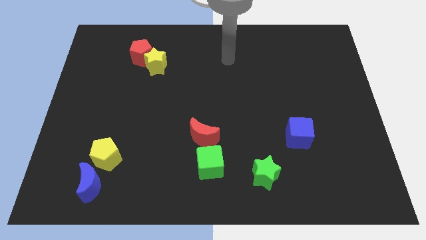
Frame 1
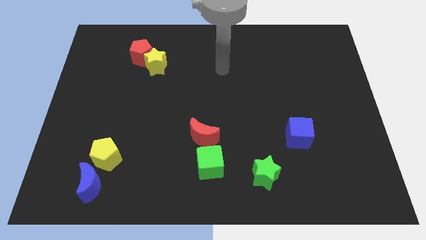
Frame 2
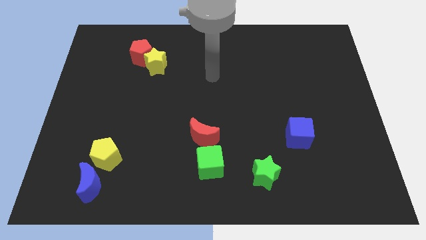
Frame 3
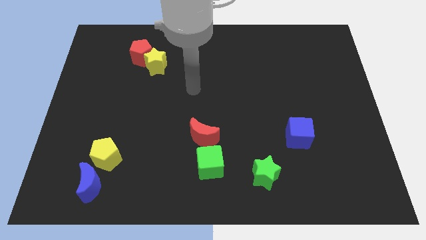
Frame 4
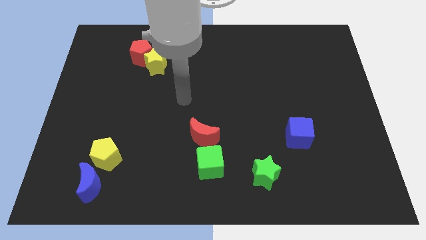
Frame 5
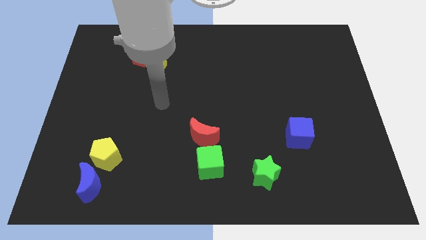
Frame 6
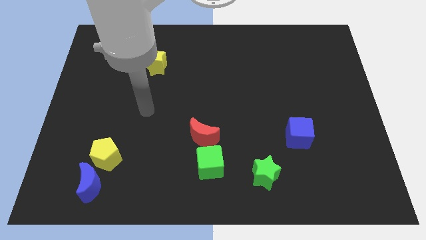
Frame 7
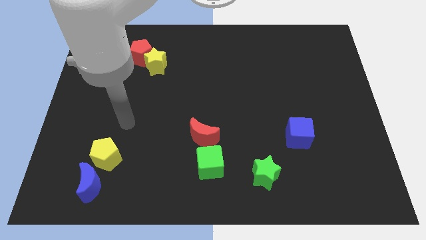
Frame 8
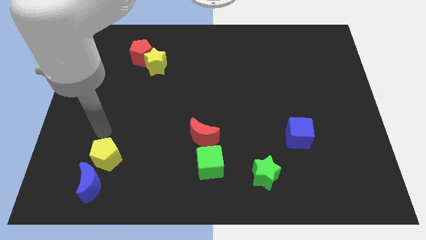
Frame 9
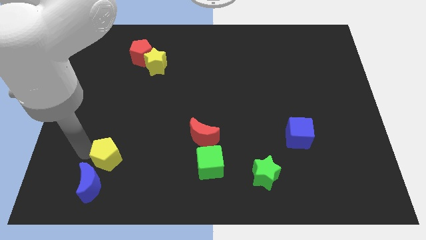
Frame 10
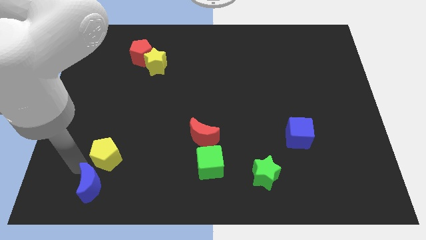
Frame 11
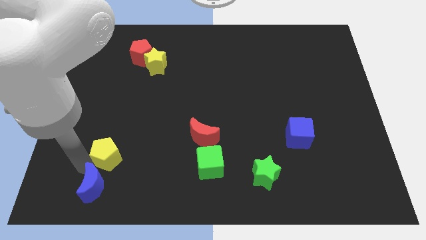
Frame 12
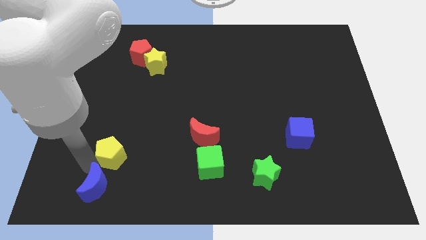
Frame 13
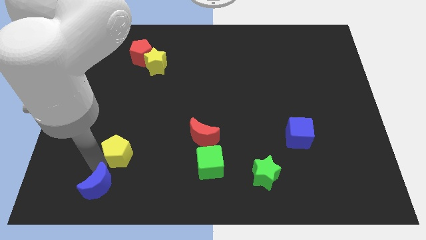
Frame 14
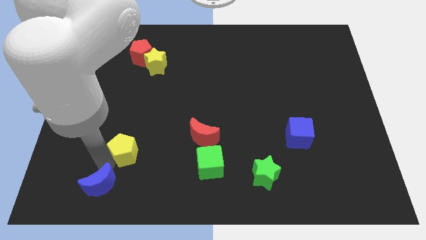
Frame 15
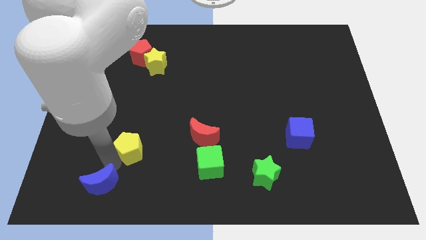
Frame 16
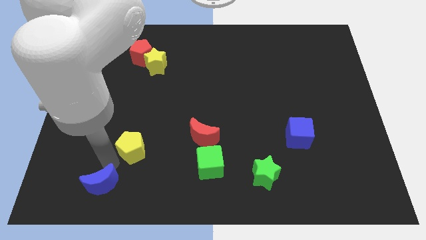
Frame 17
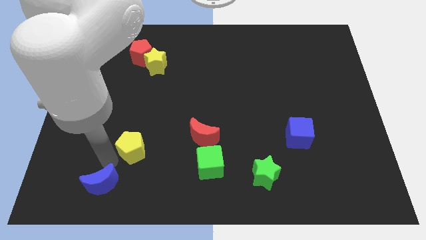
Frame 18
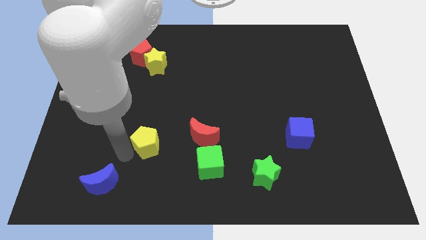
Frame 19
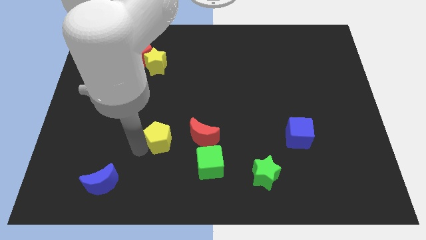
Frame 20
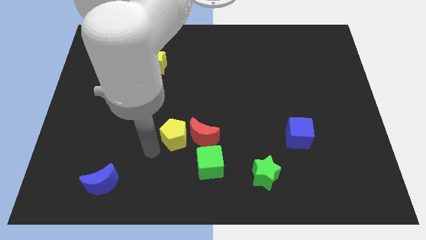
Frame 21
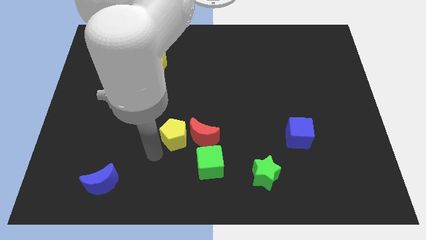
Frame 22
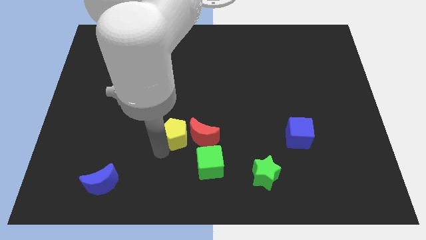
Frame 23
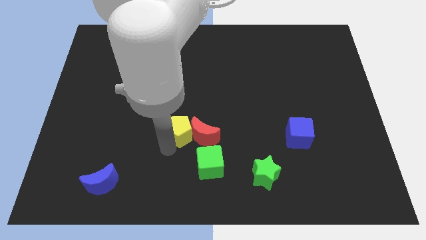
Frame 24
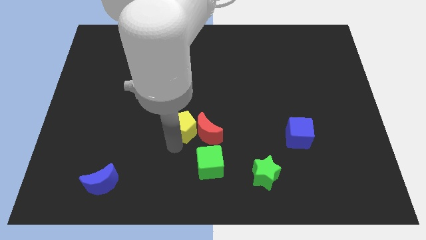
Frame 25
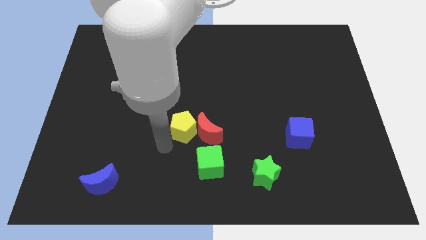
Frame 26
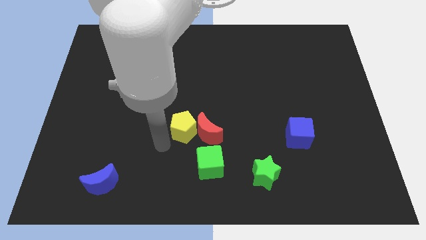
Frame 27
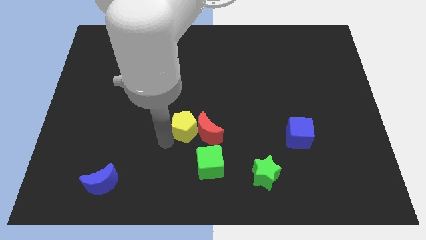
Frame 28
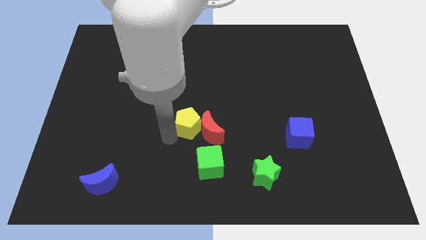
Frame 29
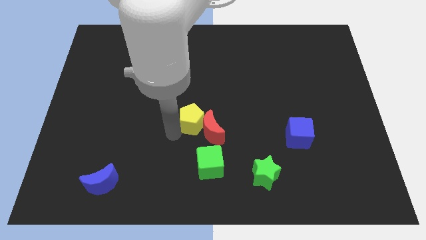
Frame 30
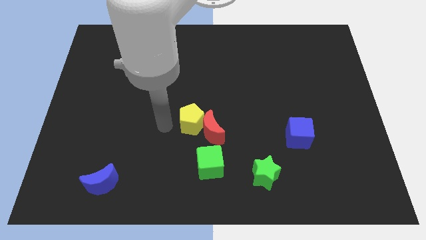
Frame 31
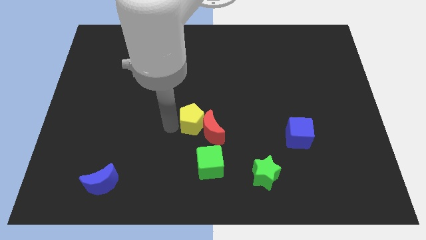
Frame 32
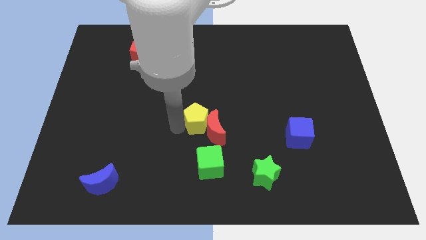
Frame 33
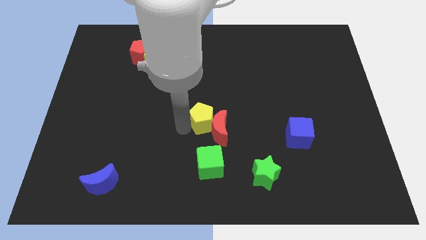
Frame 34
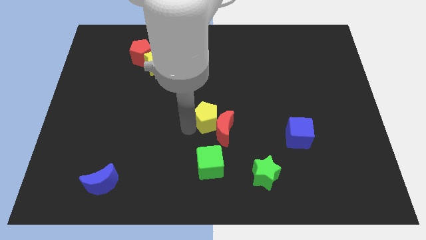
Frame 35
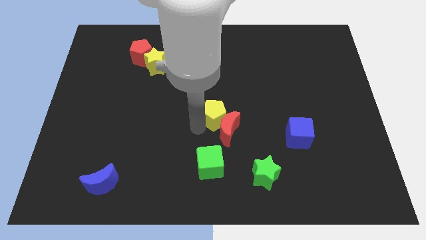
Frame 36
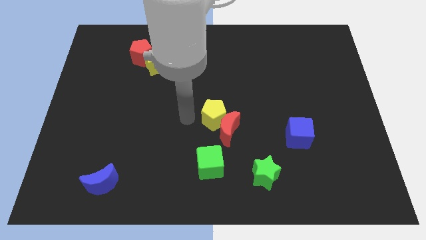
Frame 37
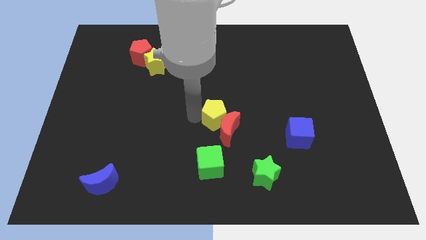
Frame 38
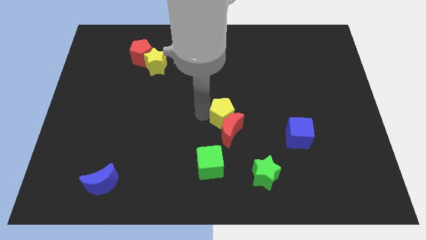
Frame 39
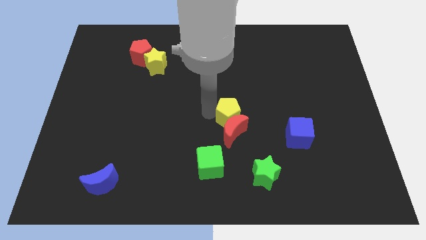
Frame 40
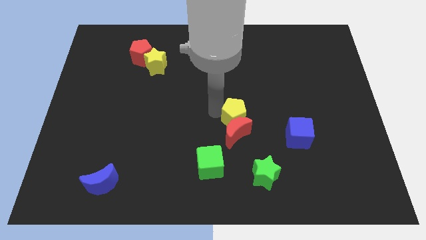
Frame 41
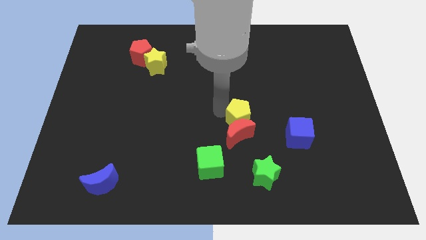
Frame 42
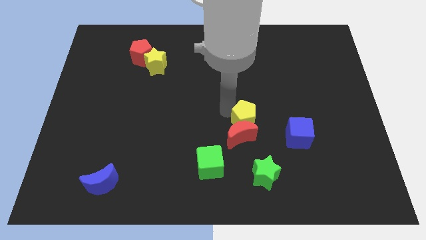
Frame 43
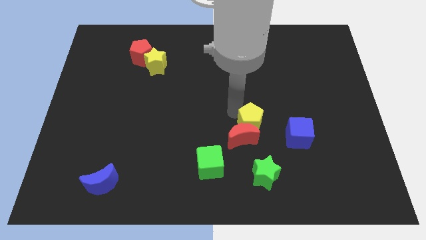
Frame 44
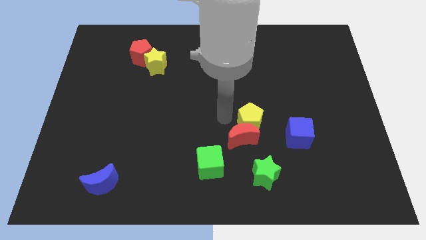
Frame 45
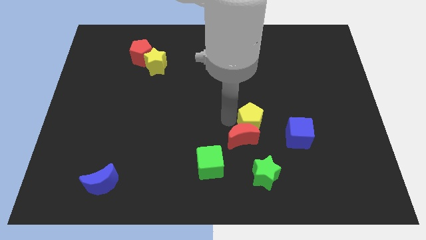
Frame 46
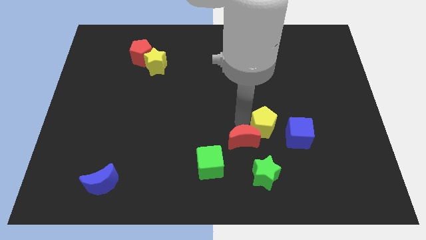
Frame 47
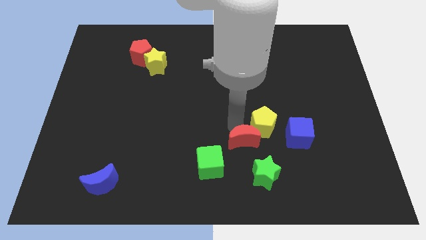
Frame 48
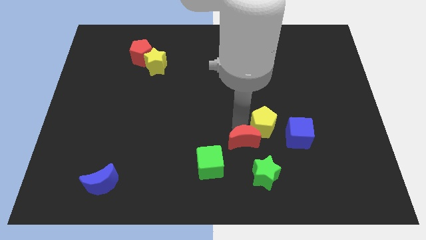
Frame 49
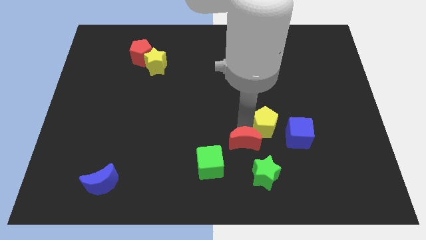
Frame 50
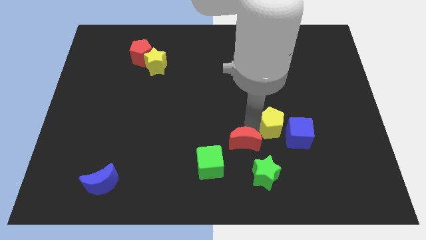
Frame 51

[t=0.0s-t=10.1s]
put the yellow pentagon close to the blue cube

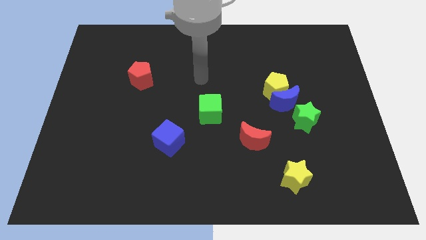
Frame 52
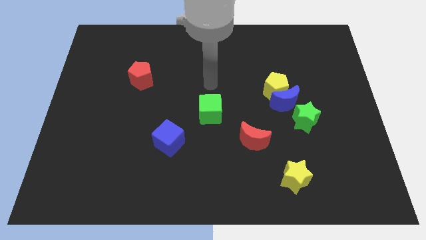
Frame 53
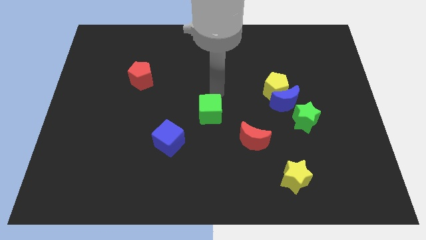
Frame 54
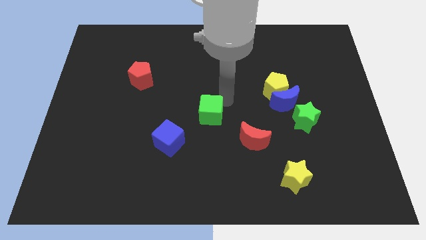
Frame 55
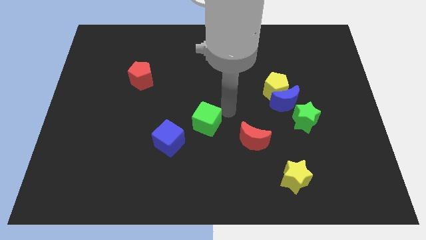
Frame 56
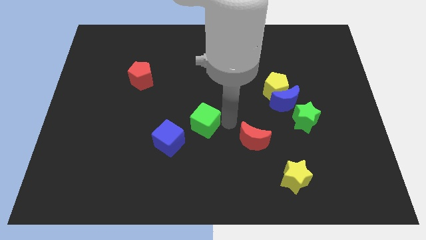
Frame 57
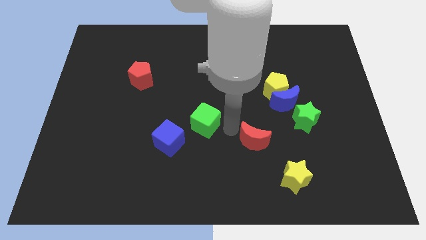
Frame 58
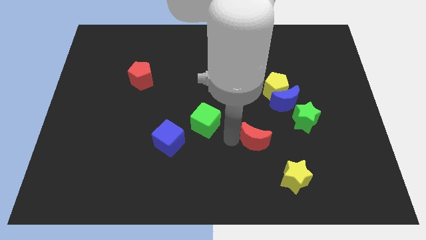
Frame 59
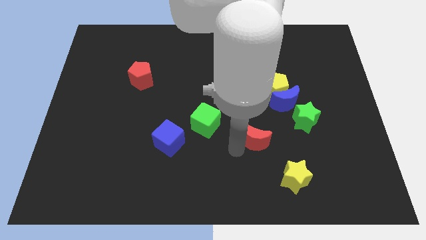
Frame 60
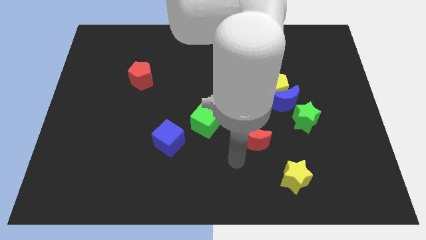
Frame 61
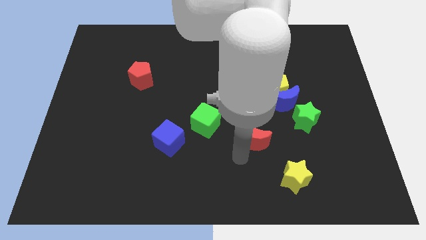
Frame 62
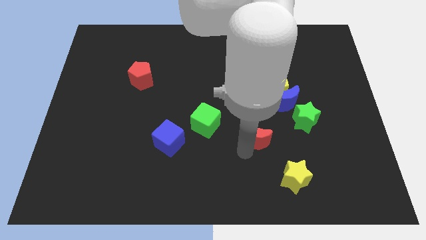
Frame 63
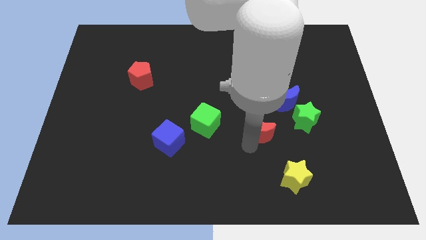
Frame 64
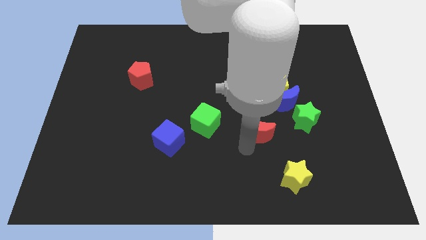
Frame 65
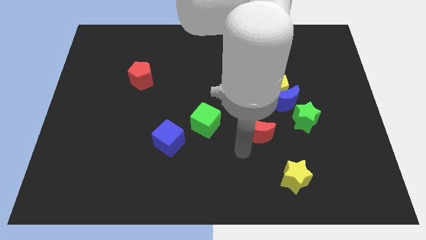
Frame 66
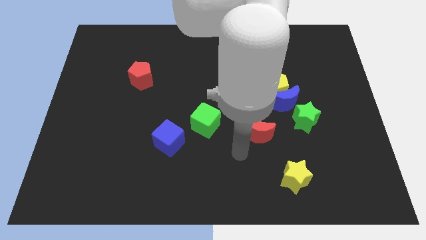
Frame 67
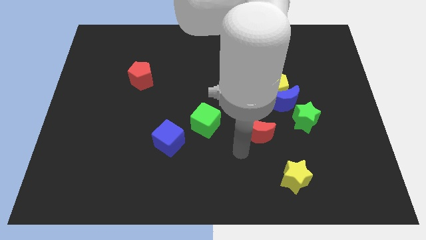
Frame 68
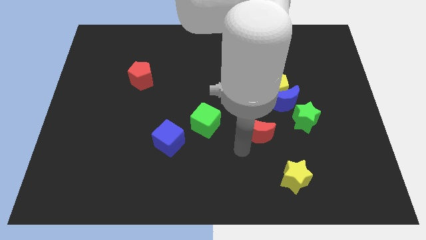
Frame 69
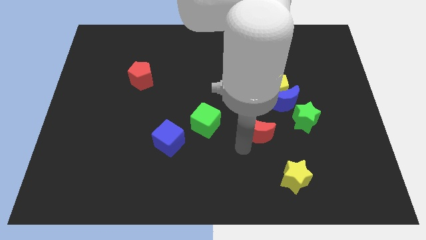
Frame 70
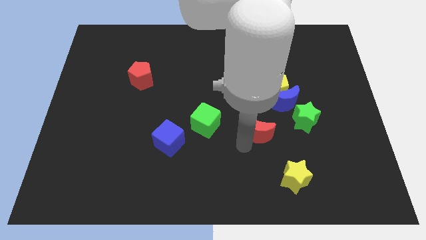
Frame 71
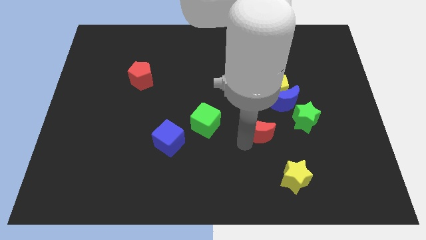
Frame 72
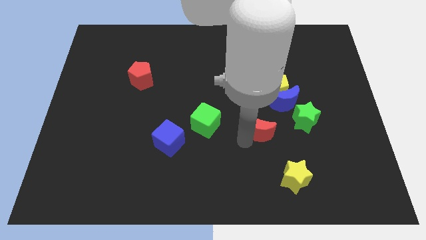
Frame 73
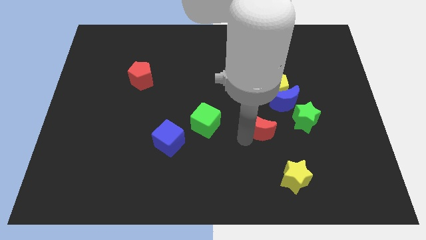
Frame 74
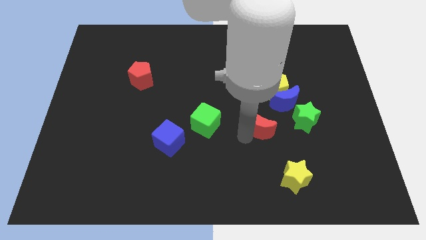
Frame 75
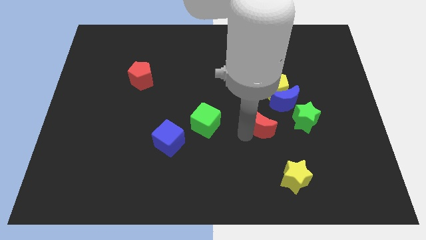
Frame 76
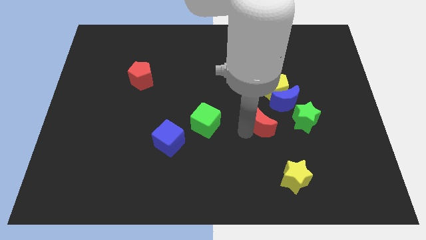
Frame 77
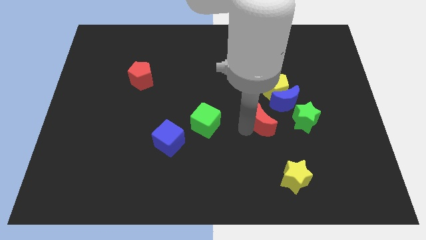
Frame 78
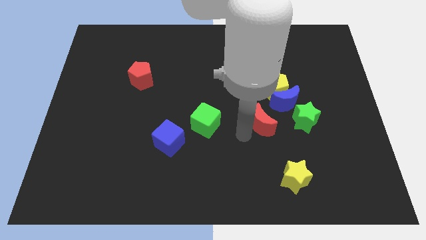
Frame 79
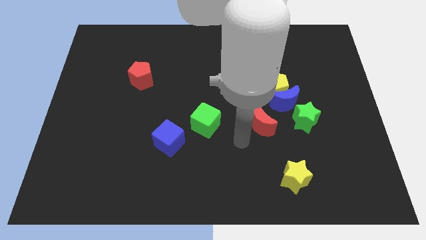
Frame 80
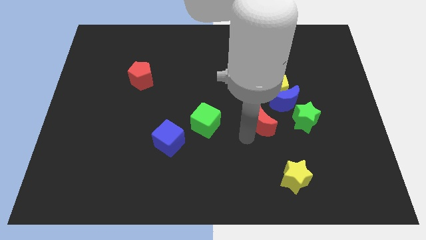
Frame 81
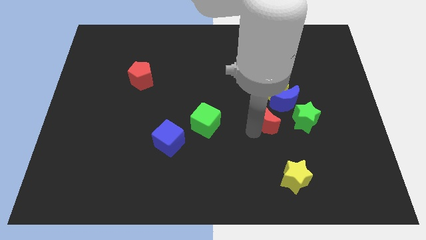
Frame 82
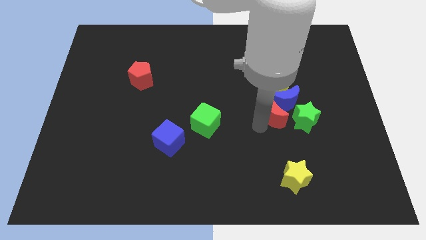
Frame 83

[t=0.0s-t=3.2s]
put the red moon close to the blue moon
